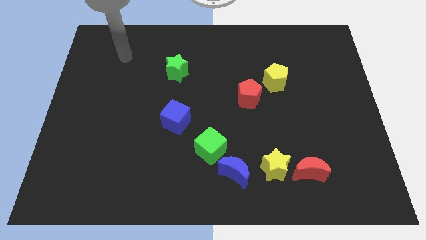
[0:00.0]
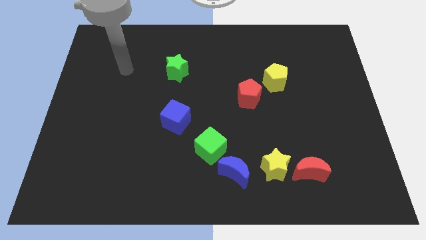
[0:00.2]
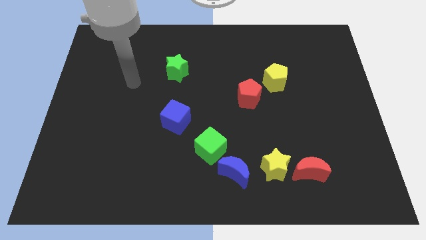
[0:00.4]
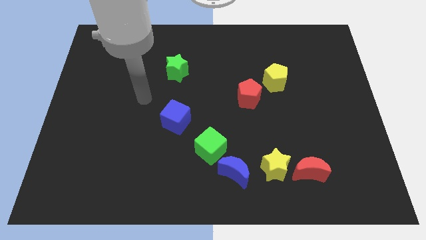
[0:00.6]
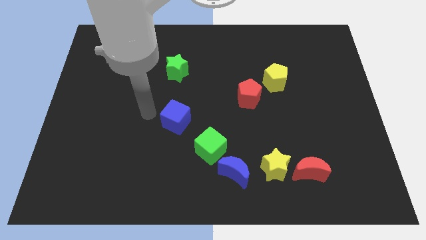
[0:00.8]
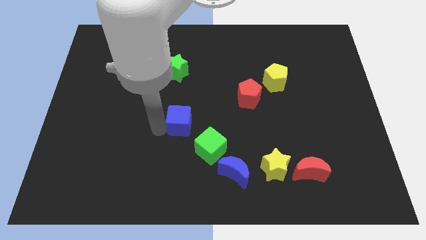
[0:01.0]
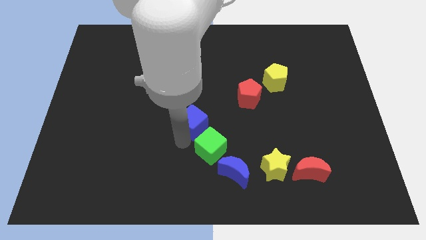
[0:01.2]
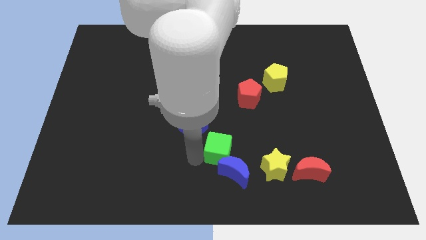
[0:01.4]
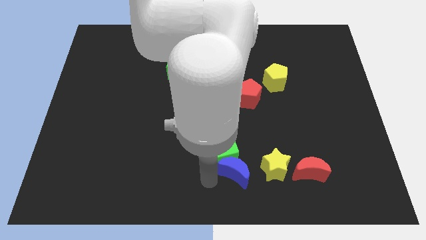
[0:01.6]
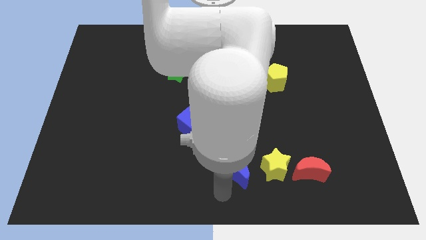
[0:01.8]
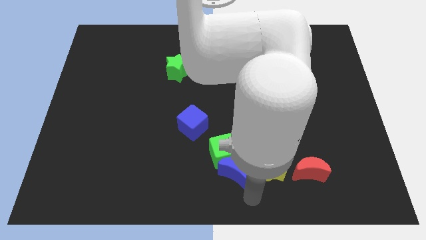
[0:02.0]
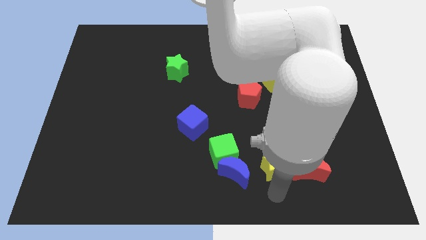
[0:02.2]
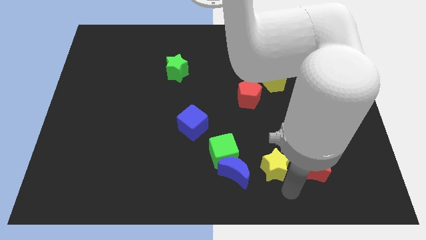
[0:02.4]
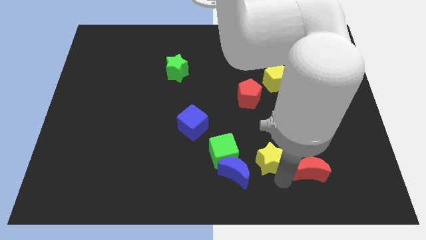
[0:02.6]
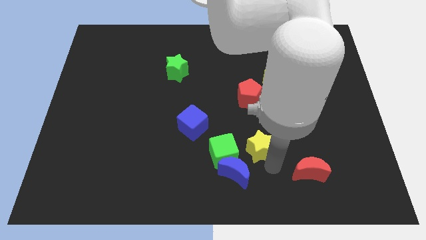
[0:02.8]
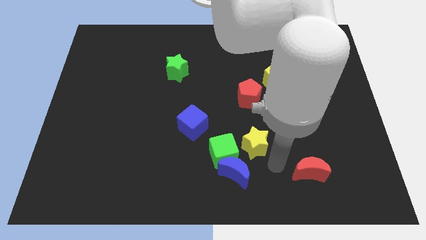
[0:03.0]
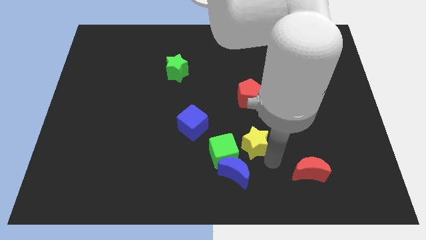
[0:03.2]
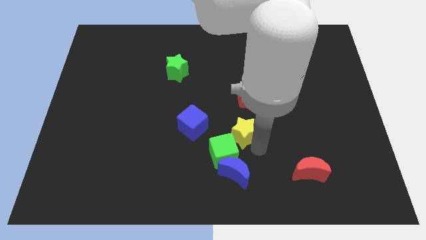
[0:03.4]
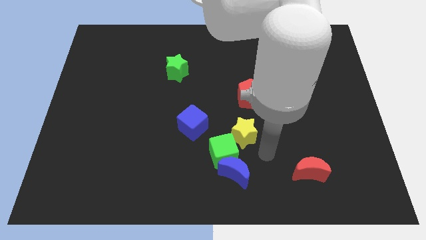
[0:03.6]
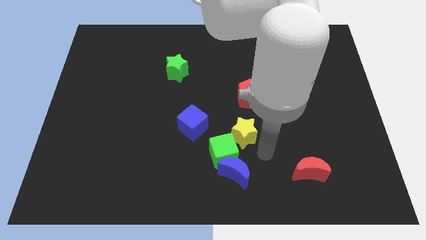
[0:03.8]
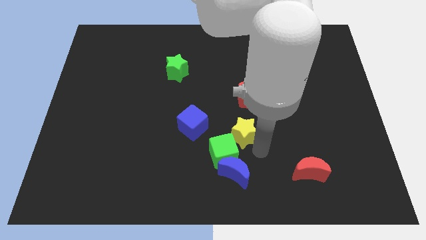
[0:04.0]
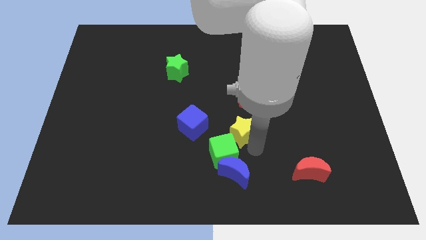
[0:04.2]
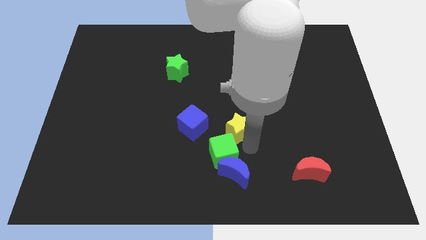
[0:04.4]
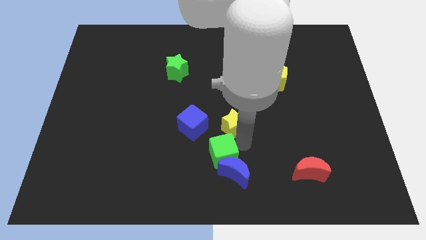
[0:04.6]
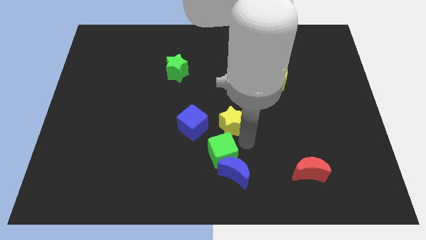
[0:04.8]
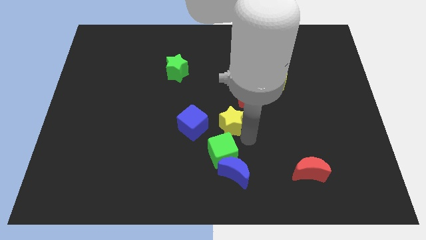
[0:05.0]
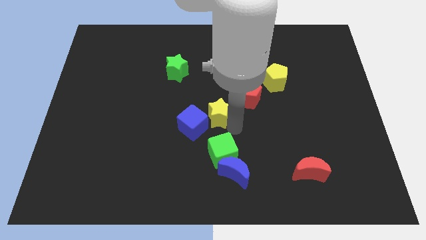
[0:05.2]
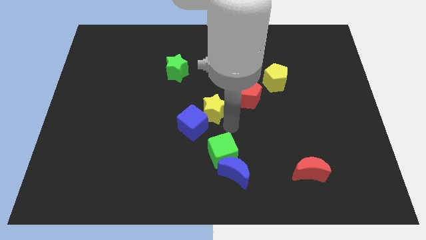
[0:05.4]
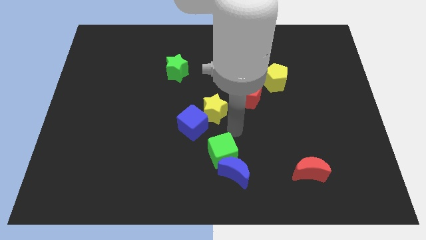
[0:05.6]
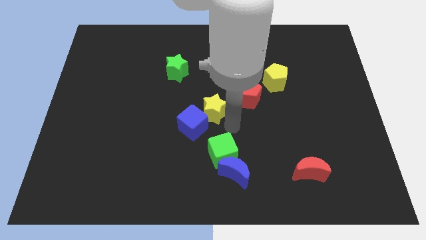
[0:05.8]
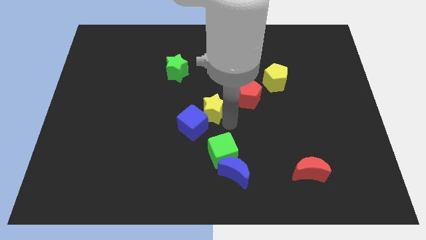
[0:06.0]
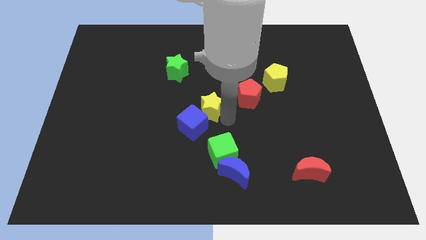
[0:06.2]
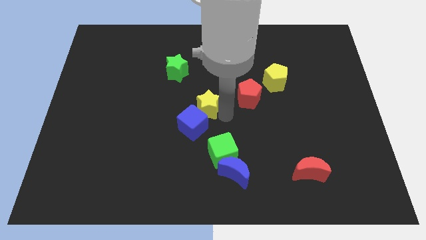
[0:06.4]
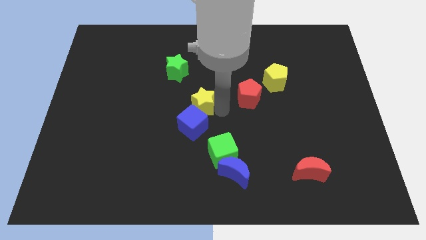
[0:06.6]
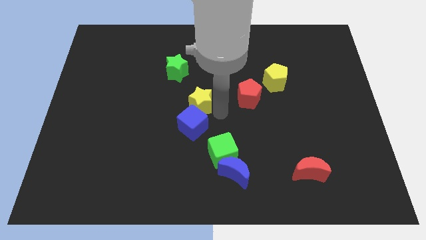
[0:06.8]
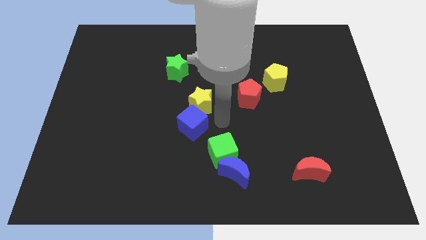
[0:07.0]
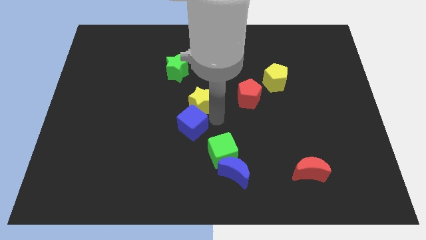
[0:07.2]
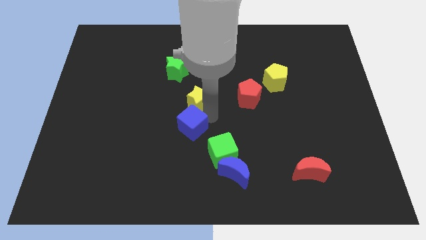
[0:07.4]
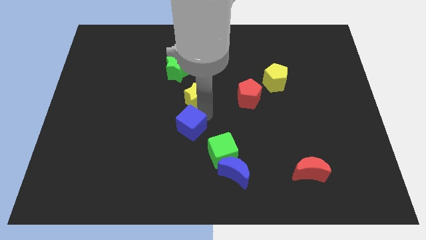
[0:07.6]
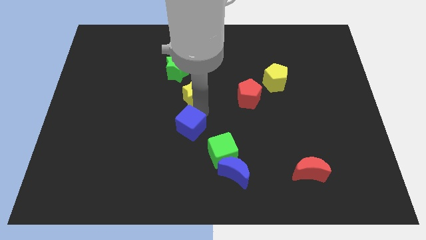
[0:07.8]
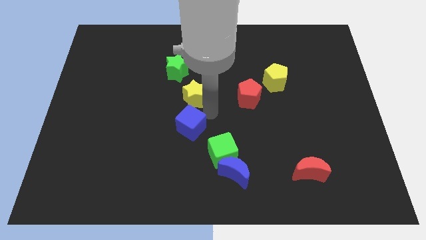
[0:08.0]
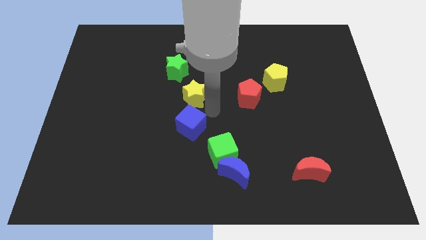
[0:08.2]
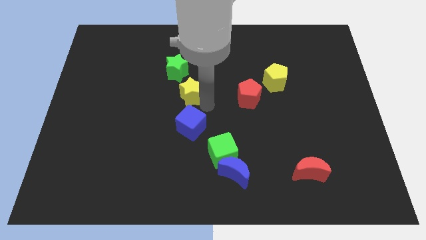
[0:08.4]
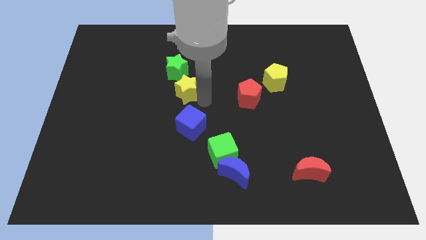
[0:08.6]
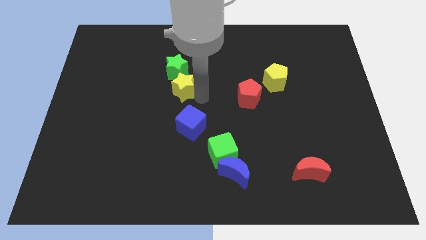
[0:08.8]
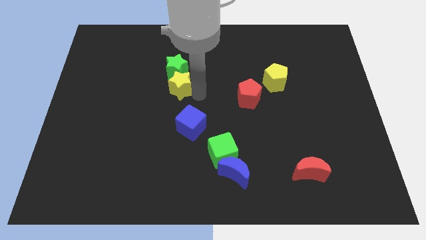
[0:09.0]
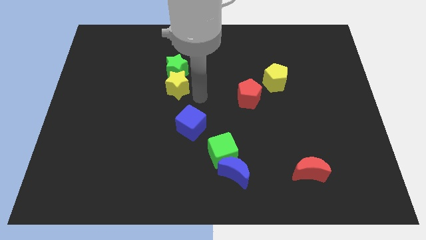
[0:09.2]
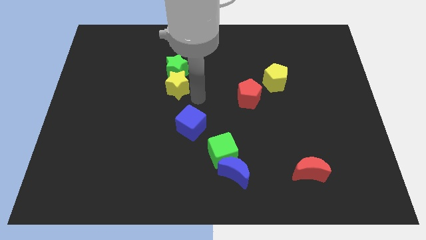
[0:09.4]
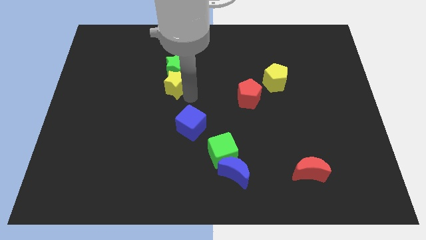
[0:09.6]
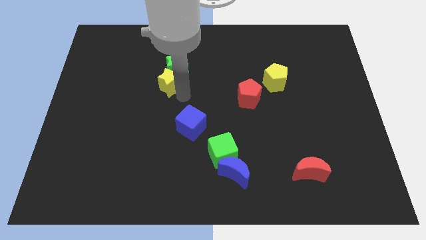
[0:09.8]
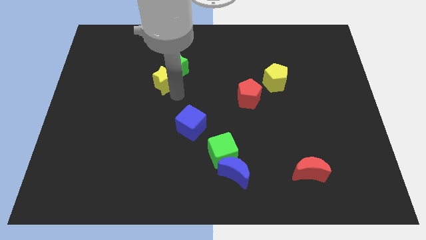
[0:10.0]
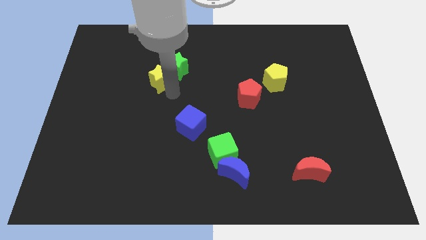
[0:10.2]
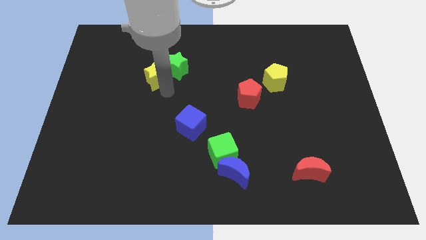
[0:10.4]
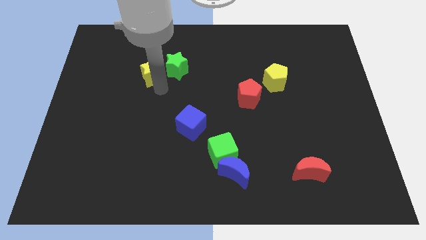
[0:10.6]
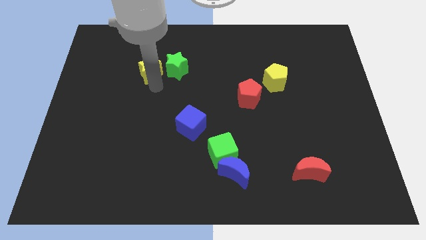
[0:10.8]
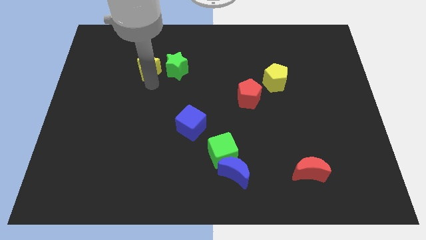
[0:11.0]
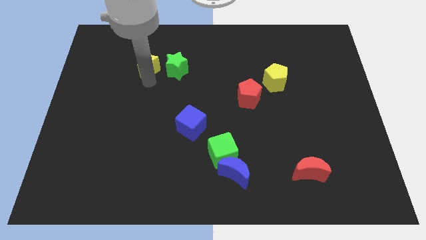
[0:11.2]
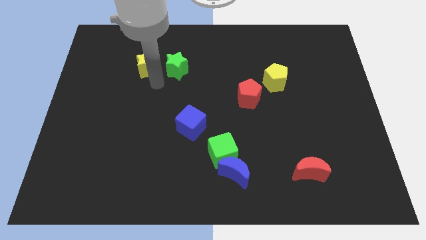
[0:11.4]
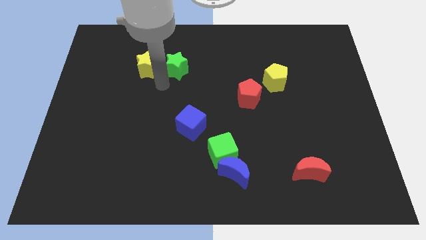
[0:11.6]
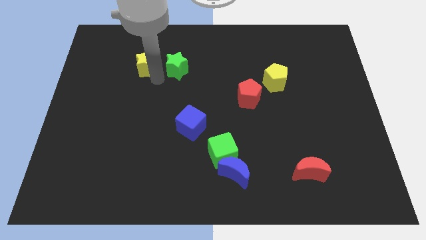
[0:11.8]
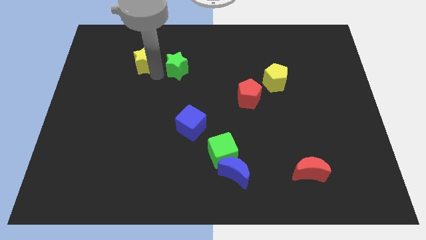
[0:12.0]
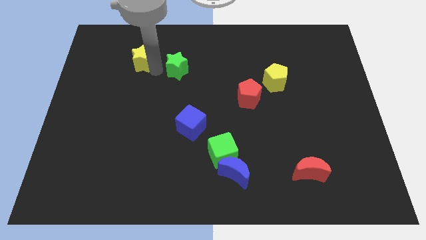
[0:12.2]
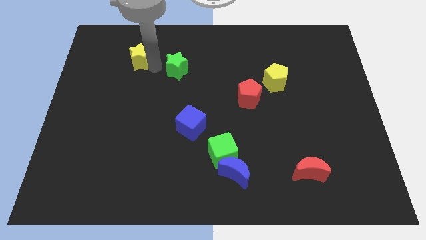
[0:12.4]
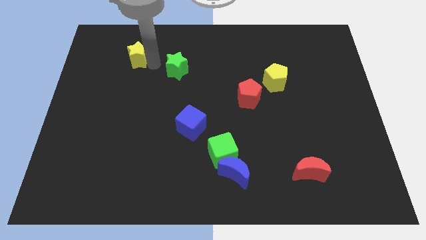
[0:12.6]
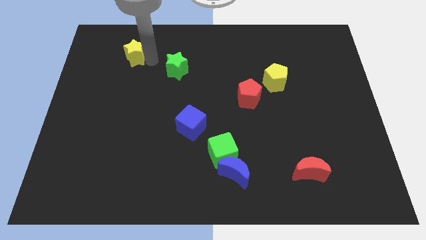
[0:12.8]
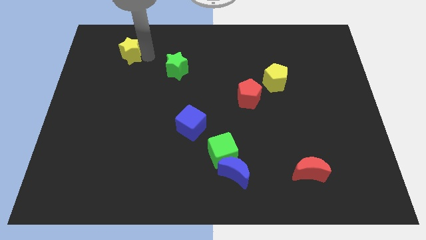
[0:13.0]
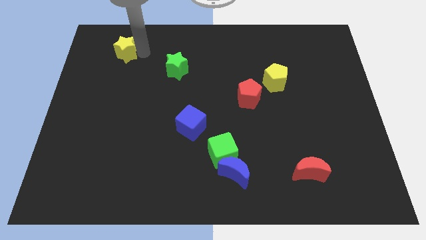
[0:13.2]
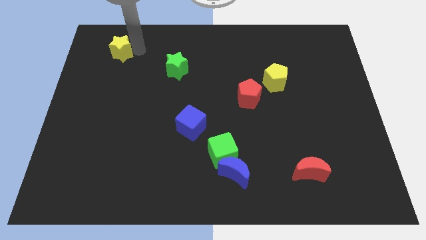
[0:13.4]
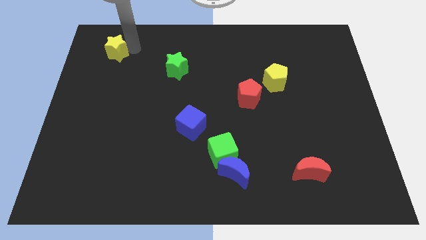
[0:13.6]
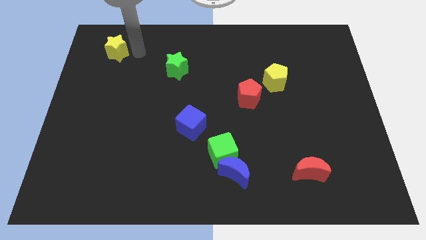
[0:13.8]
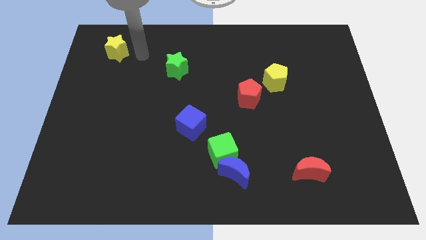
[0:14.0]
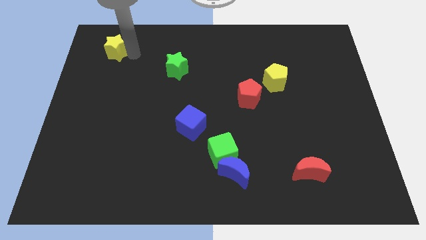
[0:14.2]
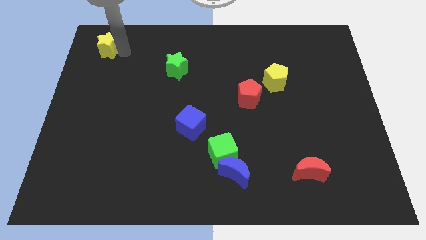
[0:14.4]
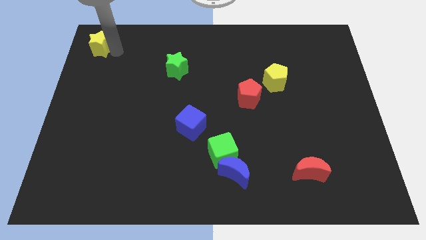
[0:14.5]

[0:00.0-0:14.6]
put the yellow star to the top left
